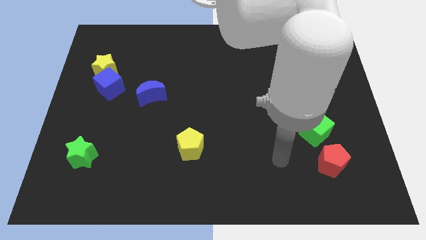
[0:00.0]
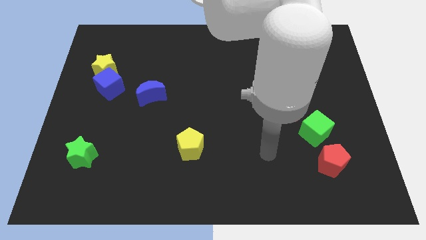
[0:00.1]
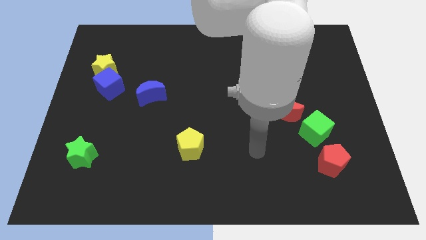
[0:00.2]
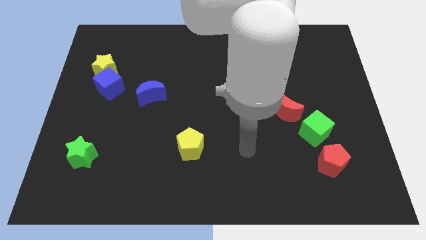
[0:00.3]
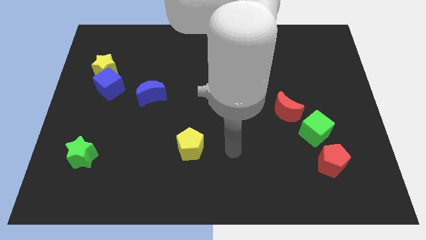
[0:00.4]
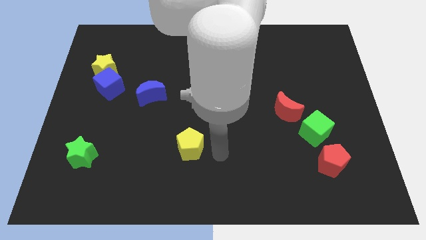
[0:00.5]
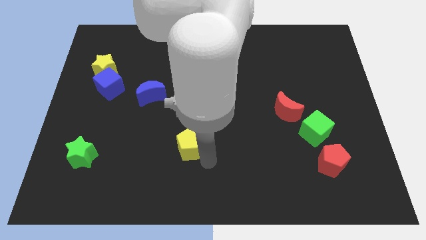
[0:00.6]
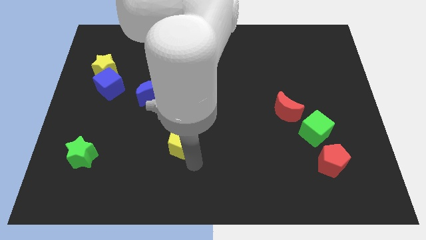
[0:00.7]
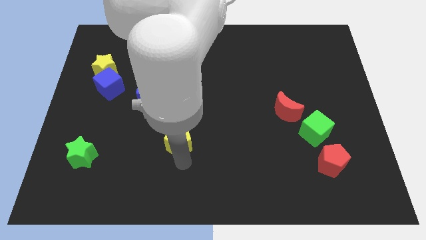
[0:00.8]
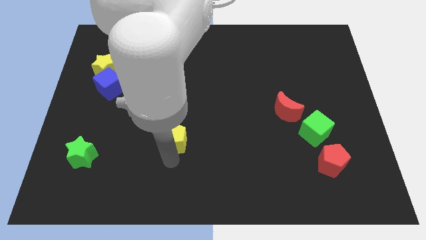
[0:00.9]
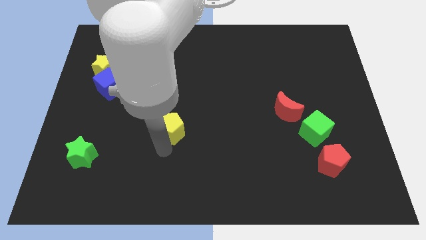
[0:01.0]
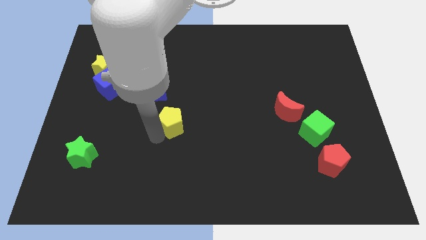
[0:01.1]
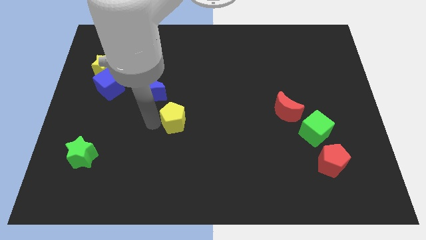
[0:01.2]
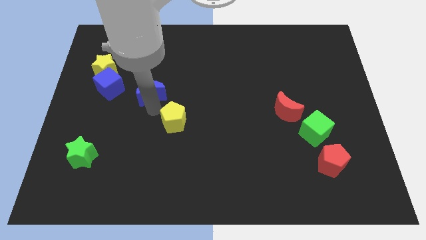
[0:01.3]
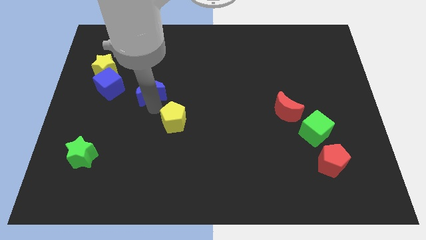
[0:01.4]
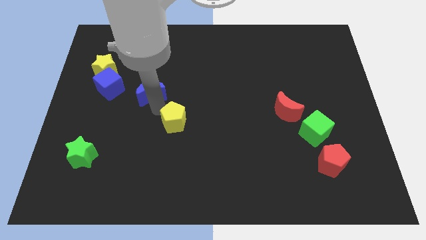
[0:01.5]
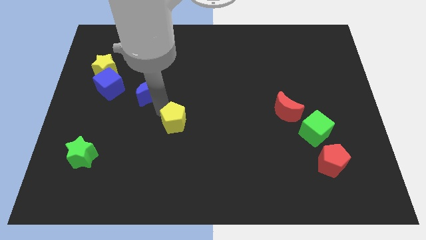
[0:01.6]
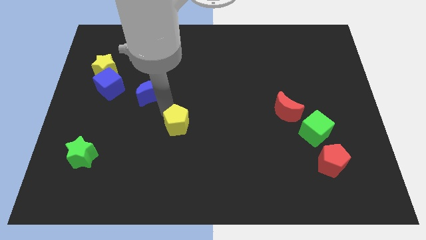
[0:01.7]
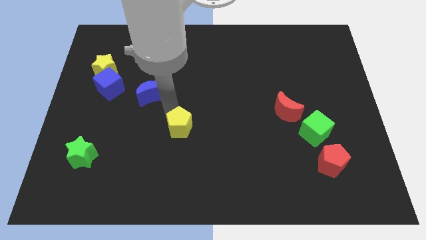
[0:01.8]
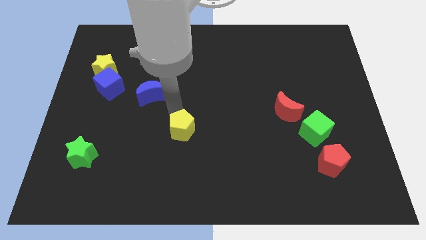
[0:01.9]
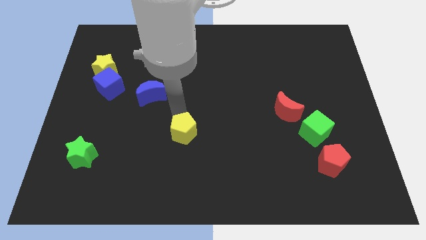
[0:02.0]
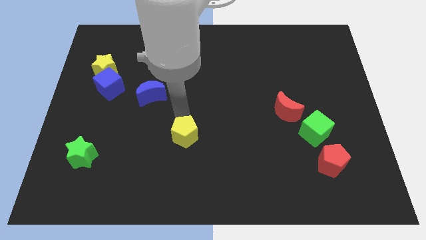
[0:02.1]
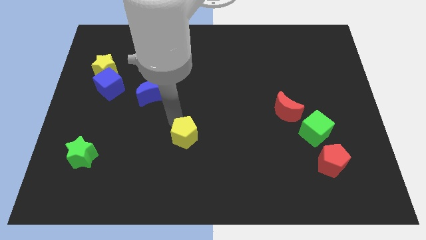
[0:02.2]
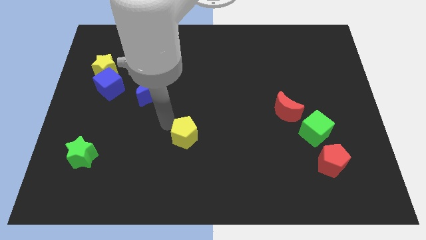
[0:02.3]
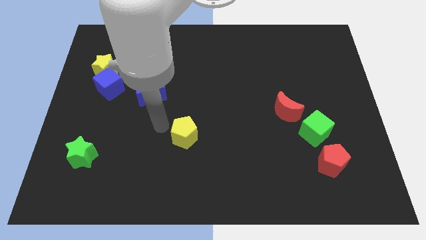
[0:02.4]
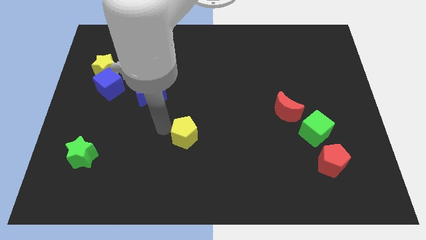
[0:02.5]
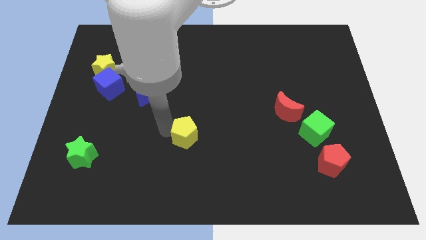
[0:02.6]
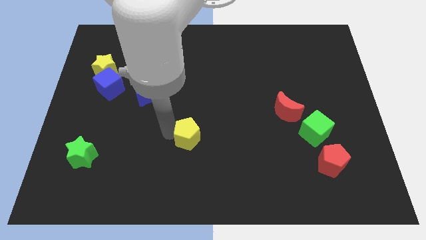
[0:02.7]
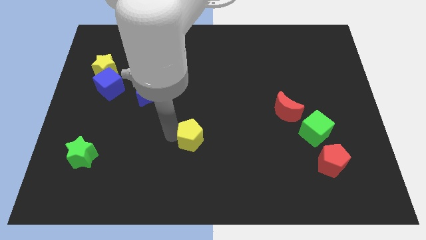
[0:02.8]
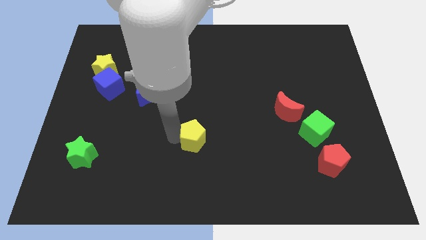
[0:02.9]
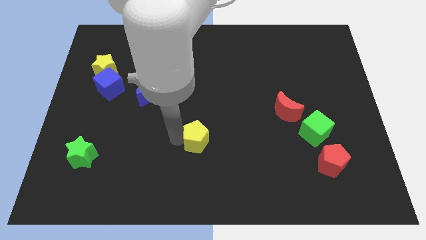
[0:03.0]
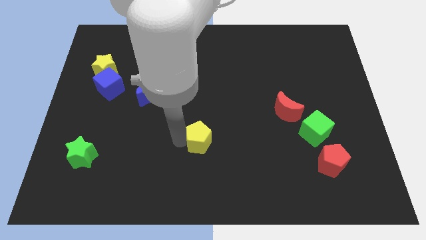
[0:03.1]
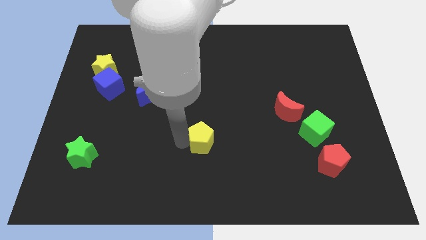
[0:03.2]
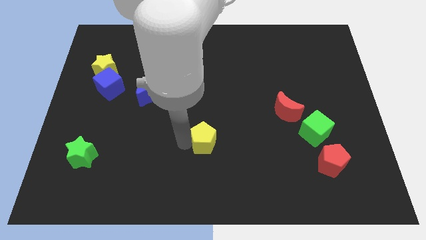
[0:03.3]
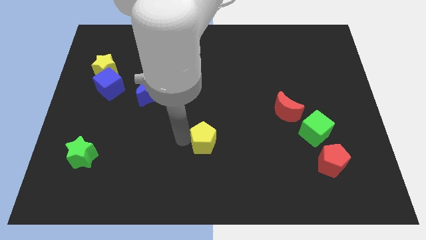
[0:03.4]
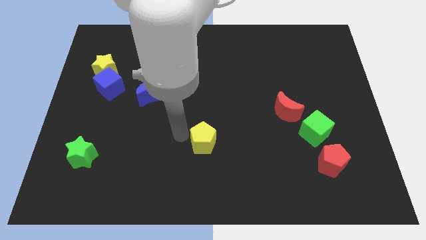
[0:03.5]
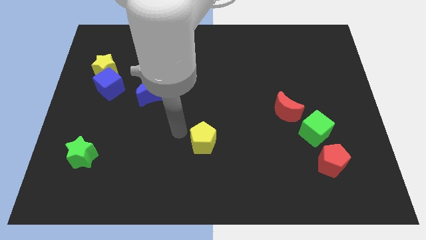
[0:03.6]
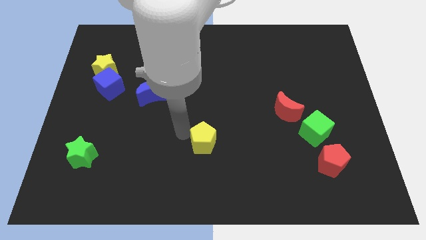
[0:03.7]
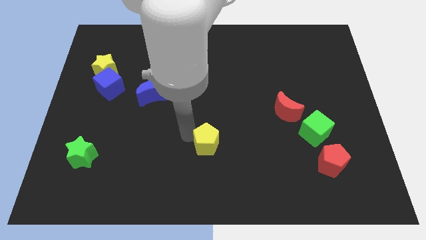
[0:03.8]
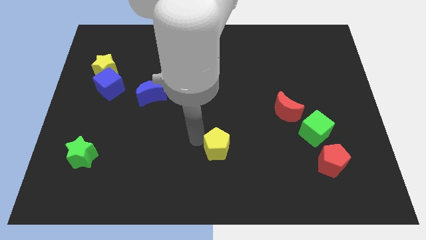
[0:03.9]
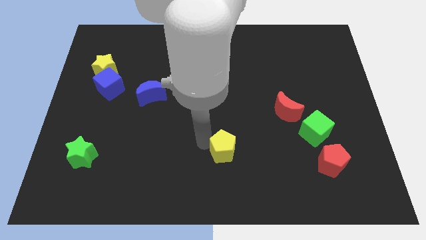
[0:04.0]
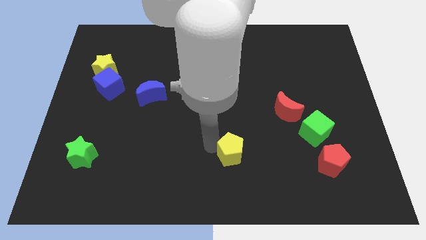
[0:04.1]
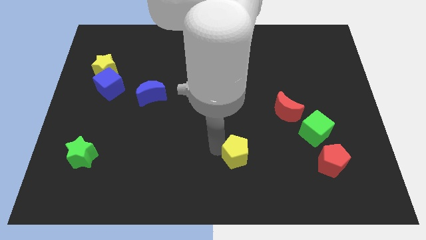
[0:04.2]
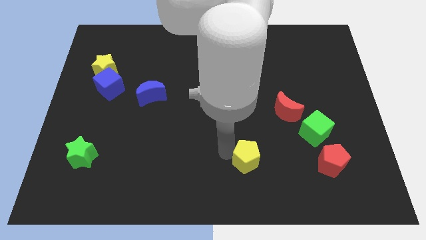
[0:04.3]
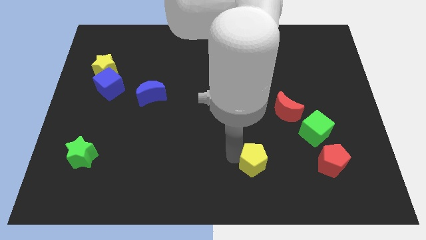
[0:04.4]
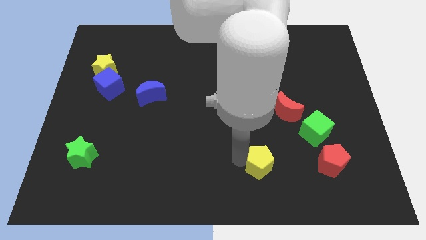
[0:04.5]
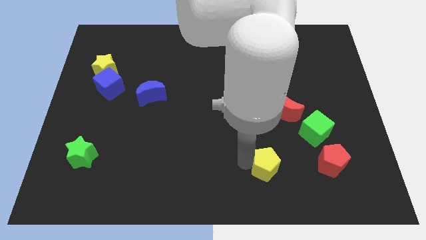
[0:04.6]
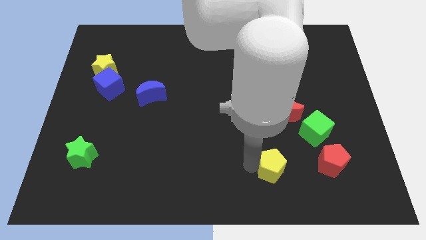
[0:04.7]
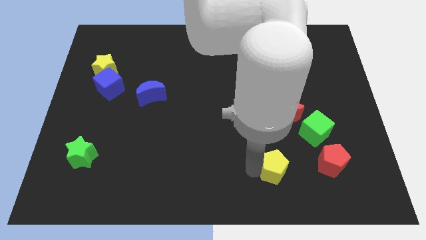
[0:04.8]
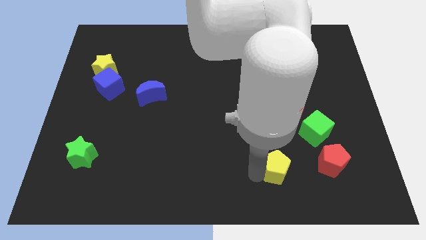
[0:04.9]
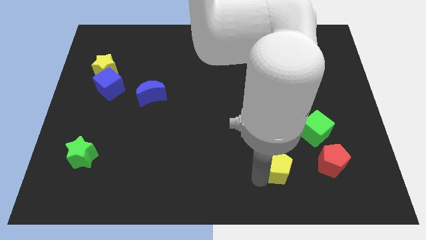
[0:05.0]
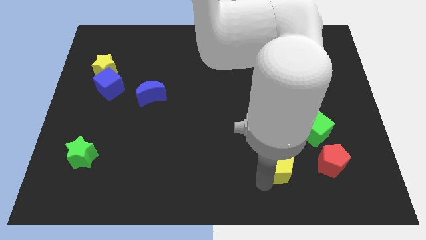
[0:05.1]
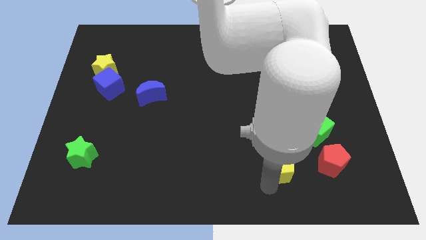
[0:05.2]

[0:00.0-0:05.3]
move the yellow pentagon to the bottom left side of the green cube

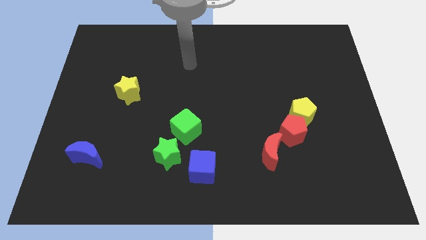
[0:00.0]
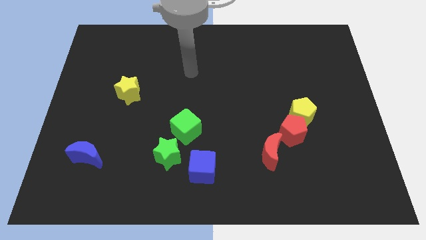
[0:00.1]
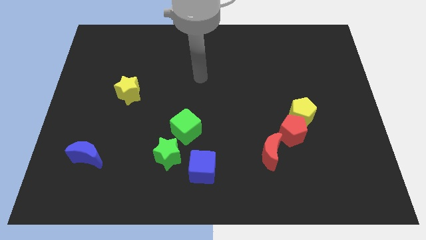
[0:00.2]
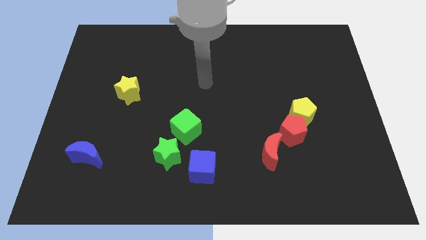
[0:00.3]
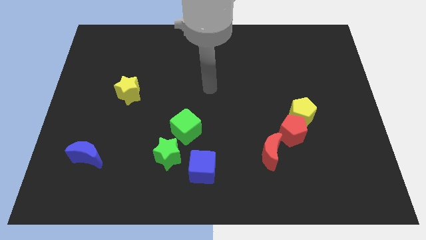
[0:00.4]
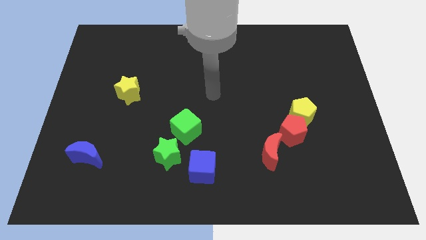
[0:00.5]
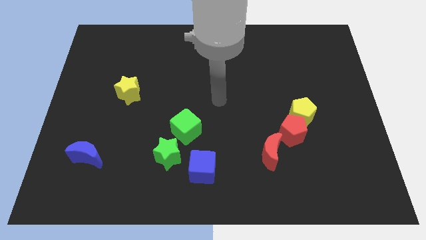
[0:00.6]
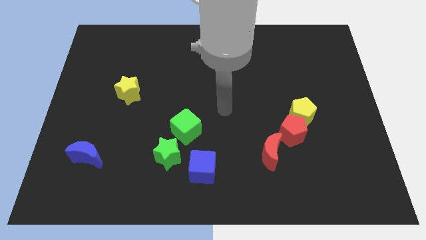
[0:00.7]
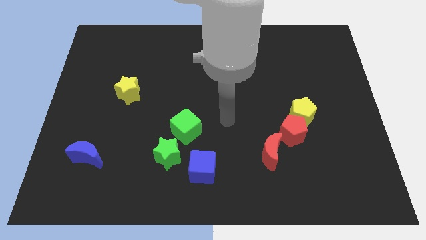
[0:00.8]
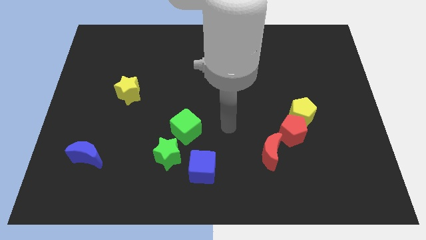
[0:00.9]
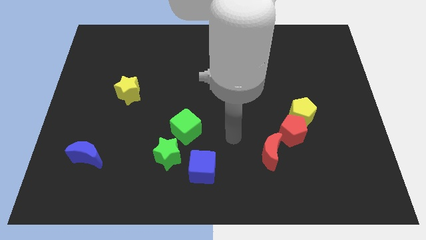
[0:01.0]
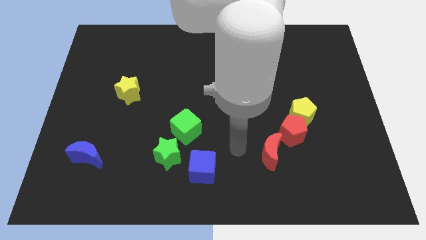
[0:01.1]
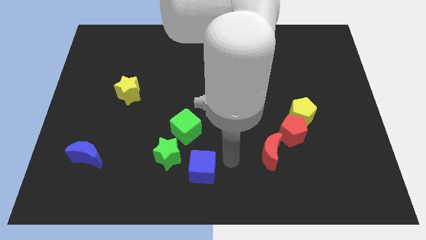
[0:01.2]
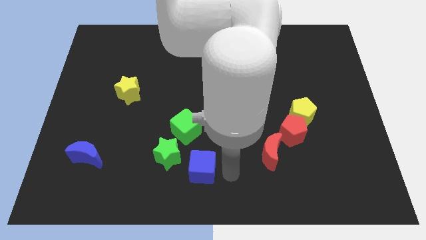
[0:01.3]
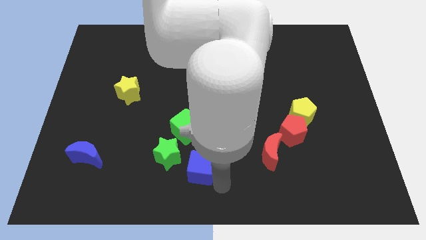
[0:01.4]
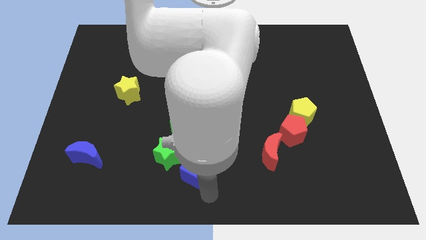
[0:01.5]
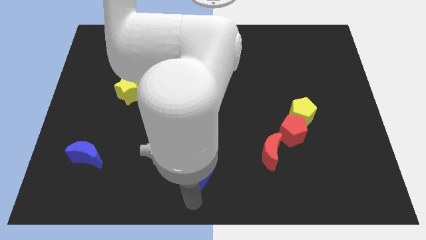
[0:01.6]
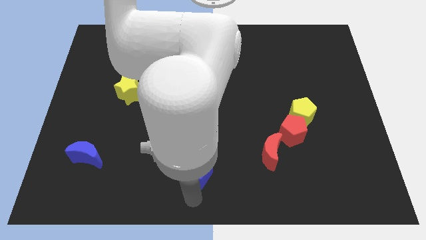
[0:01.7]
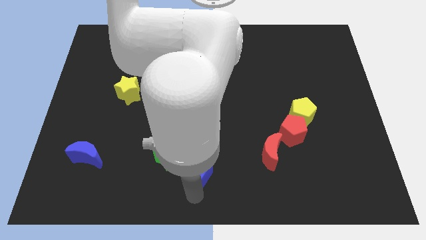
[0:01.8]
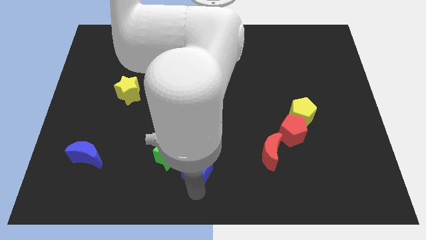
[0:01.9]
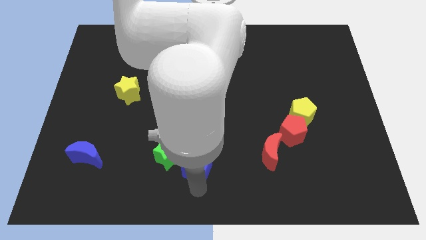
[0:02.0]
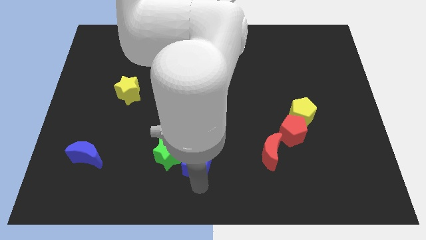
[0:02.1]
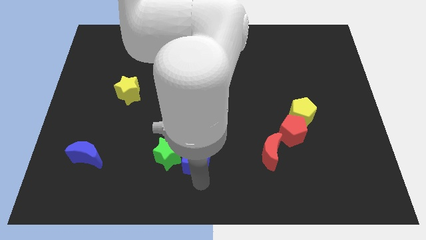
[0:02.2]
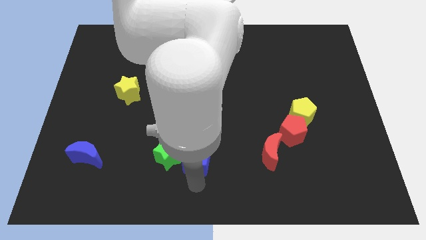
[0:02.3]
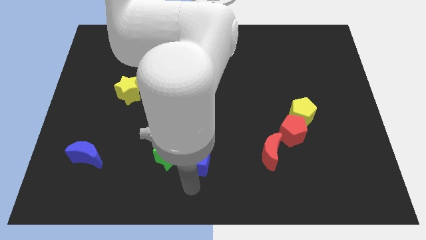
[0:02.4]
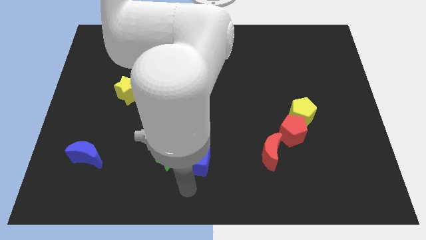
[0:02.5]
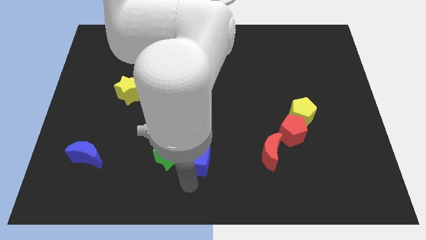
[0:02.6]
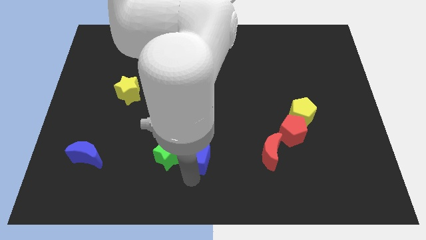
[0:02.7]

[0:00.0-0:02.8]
put the blue cube to the top right side of the green star
